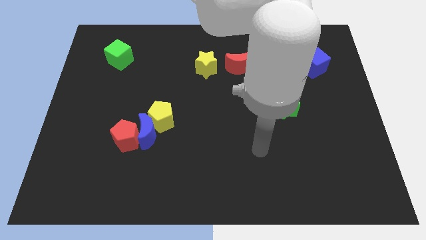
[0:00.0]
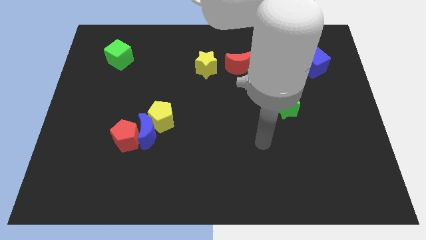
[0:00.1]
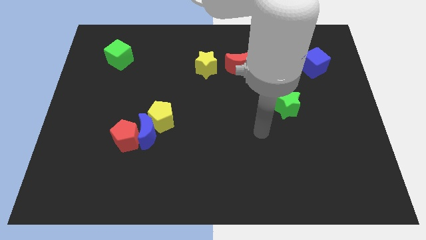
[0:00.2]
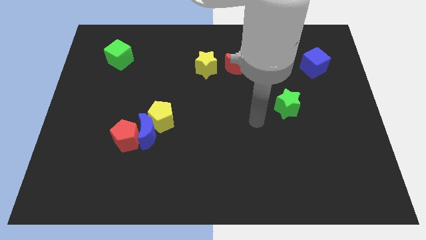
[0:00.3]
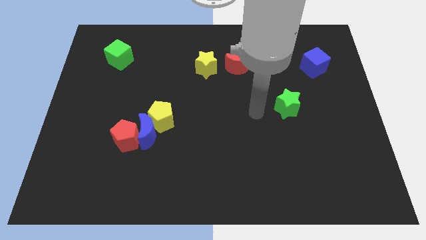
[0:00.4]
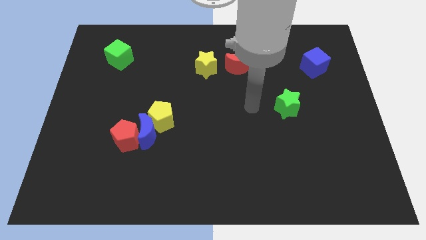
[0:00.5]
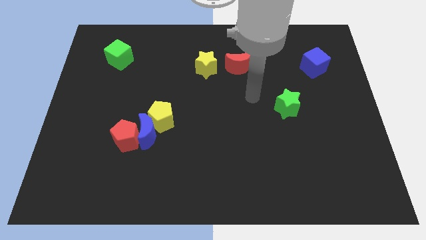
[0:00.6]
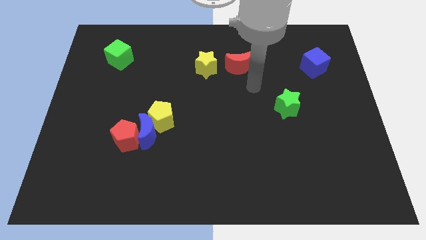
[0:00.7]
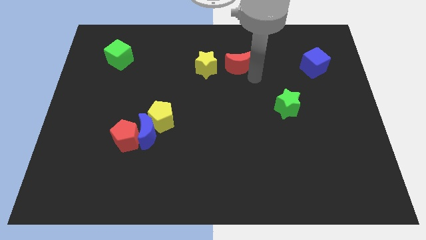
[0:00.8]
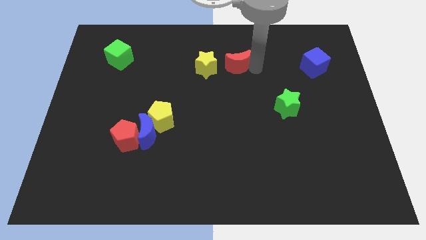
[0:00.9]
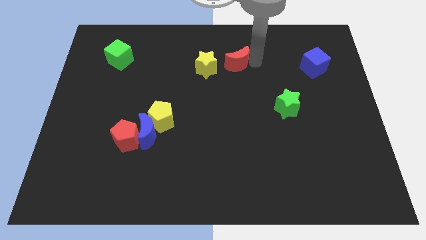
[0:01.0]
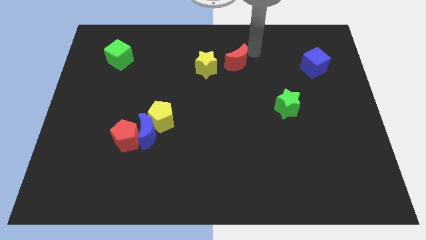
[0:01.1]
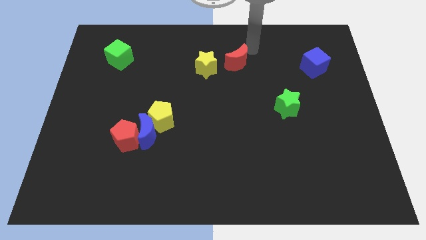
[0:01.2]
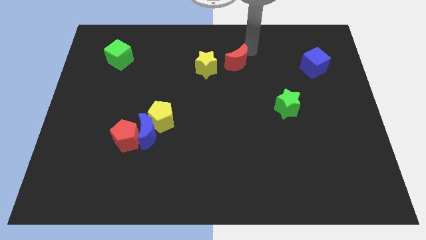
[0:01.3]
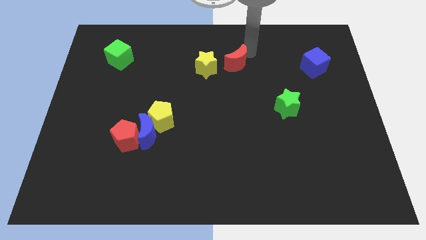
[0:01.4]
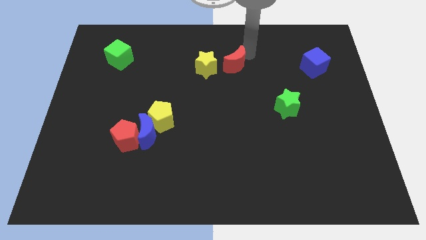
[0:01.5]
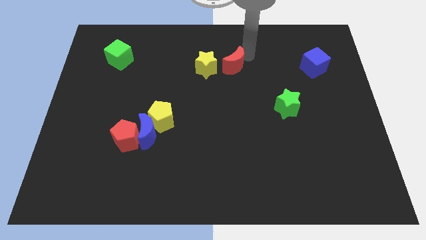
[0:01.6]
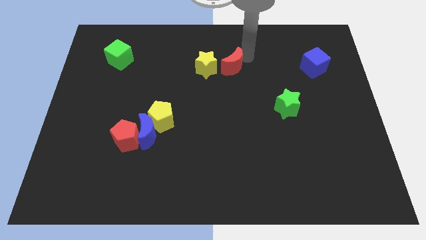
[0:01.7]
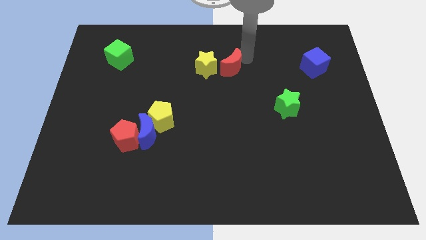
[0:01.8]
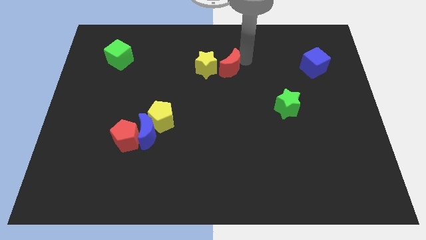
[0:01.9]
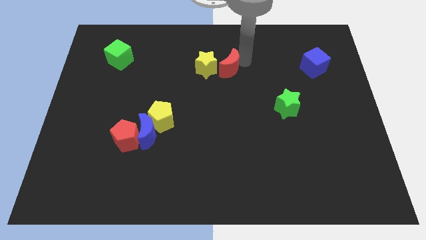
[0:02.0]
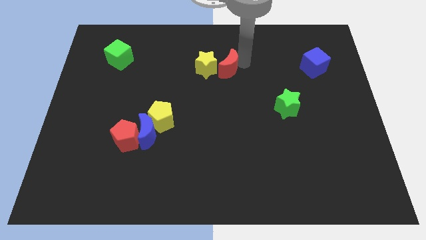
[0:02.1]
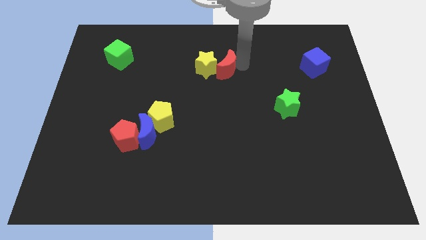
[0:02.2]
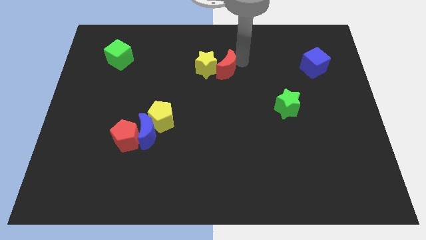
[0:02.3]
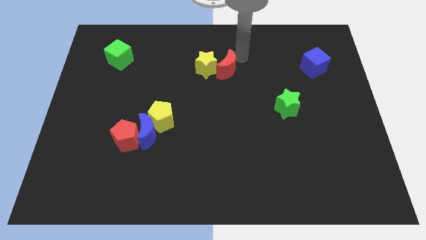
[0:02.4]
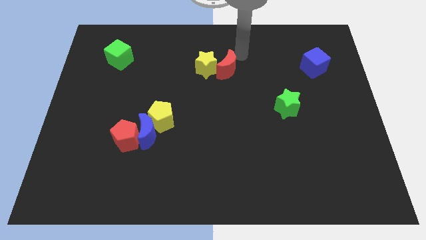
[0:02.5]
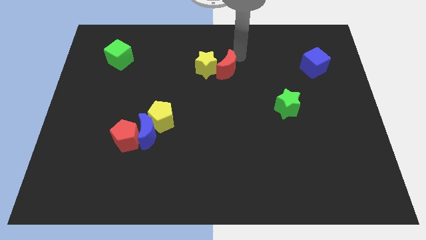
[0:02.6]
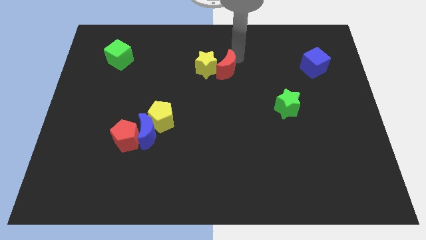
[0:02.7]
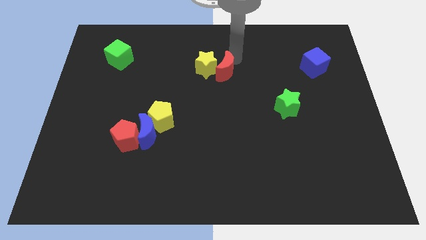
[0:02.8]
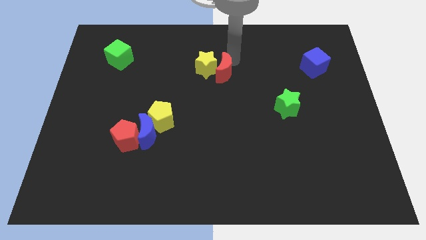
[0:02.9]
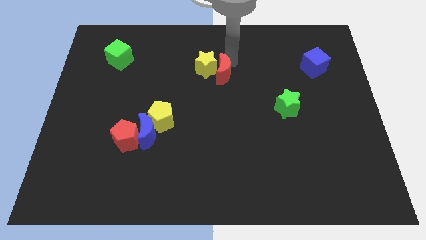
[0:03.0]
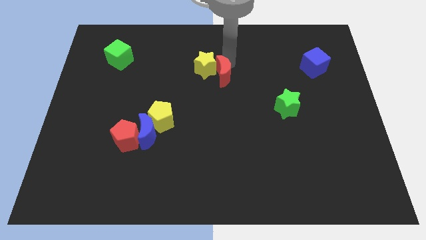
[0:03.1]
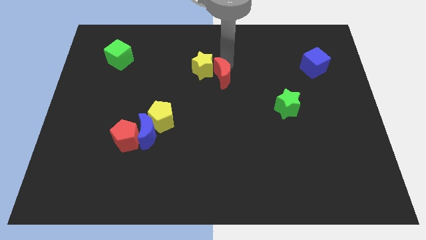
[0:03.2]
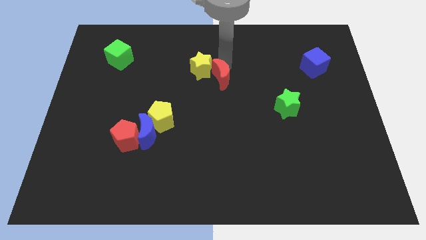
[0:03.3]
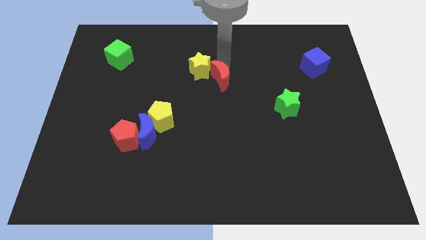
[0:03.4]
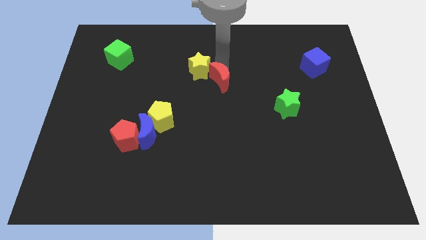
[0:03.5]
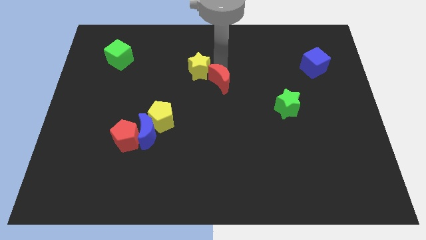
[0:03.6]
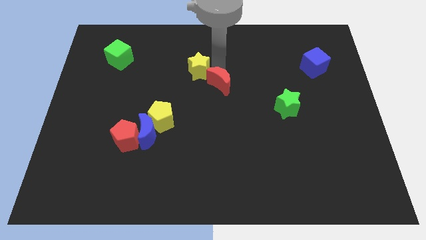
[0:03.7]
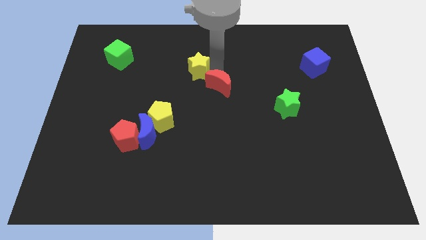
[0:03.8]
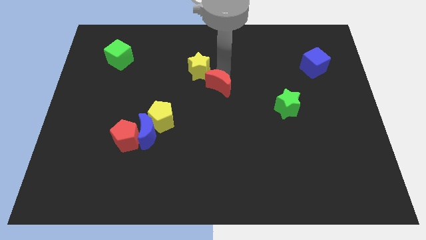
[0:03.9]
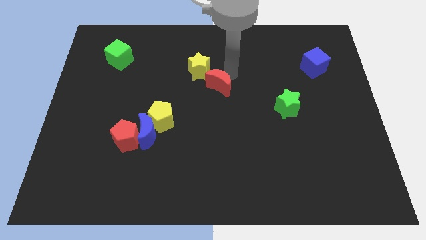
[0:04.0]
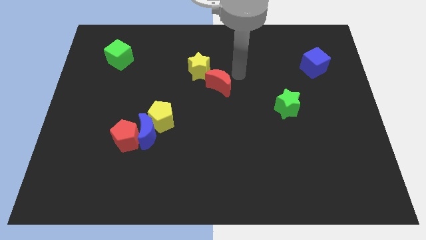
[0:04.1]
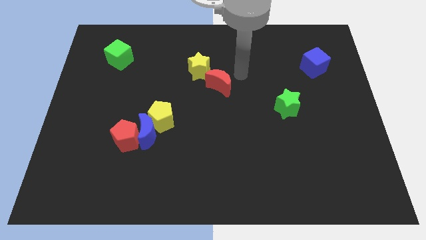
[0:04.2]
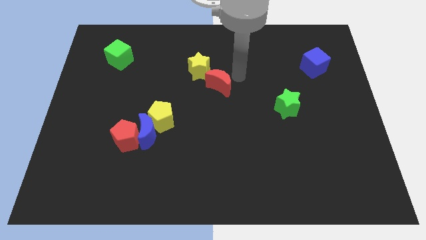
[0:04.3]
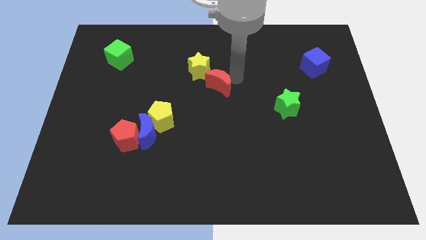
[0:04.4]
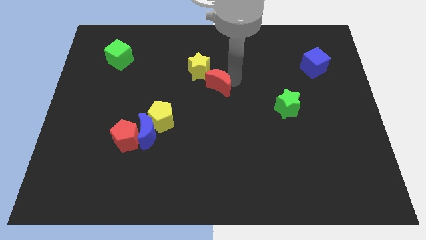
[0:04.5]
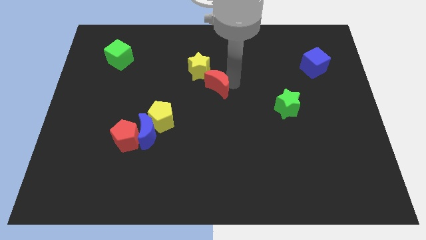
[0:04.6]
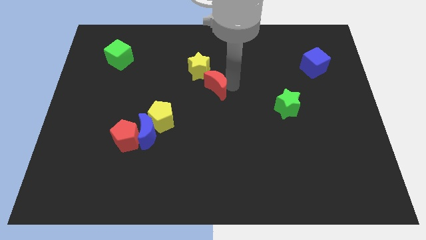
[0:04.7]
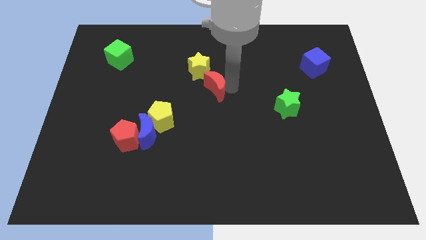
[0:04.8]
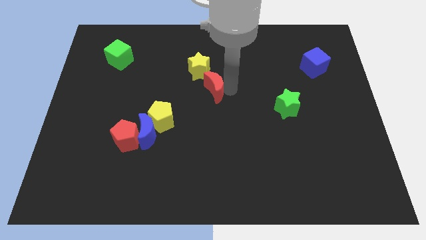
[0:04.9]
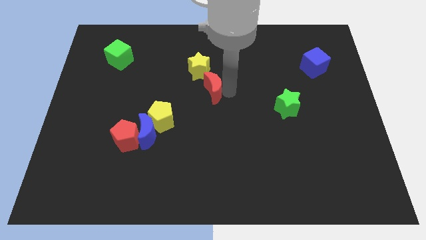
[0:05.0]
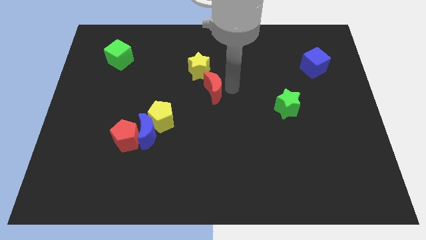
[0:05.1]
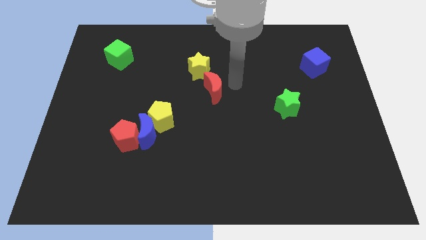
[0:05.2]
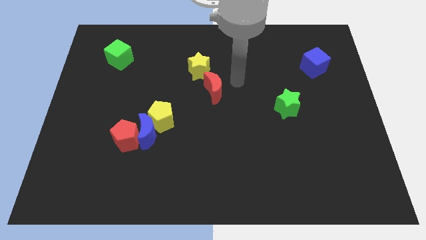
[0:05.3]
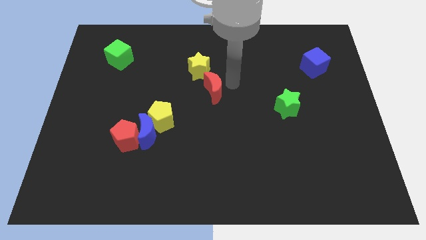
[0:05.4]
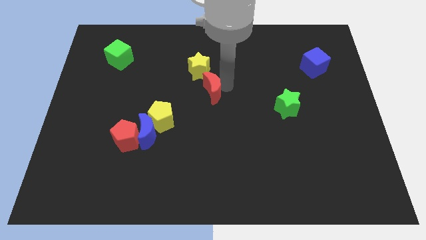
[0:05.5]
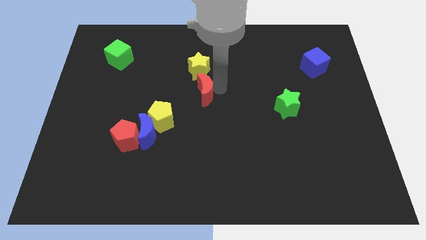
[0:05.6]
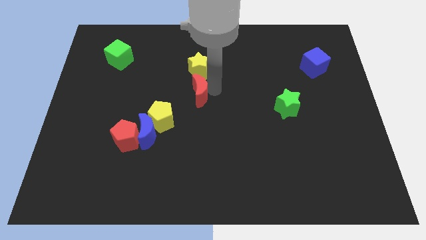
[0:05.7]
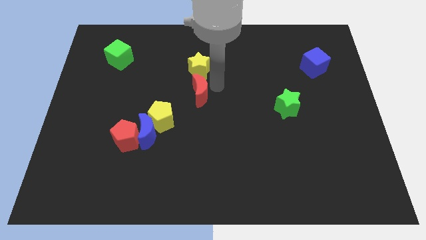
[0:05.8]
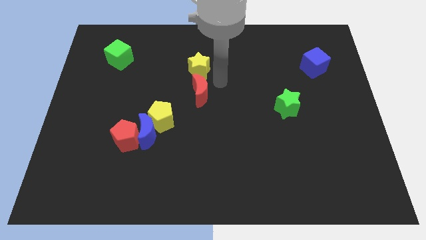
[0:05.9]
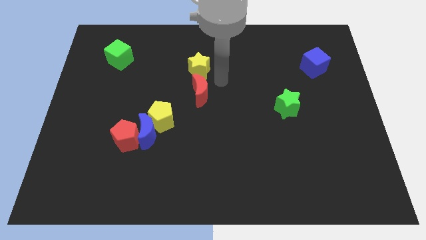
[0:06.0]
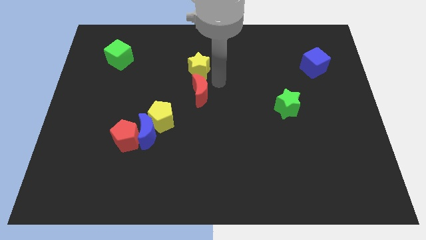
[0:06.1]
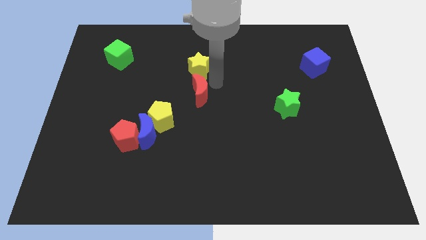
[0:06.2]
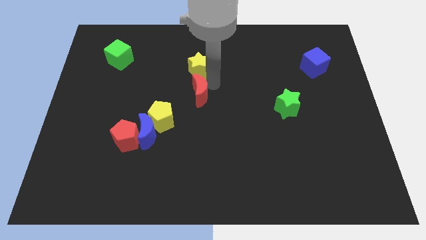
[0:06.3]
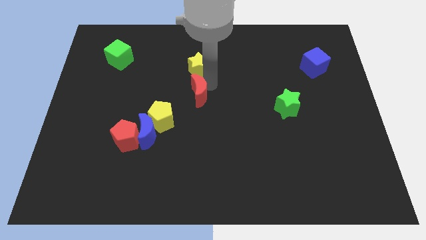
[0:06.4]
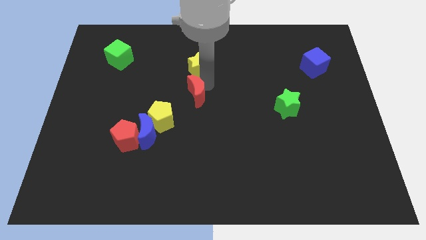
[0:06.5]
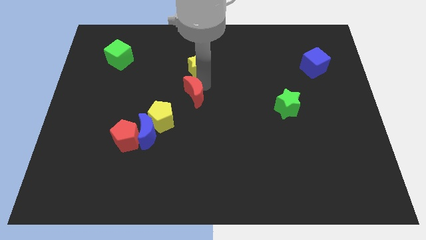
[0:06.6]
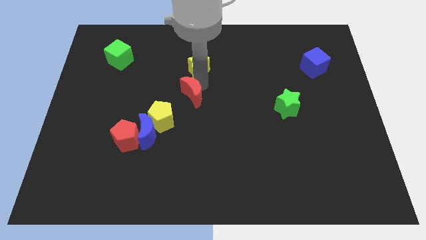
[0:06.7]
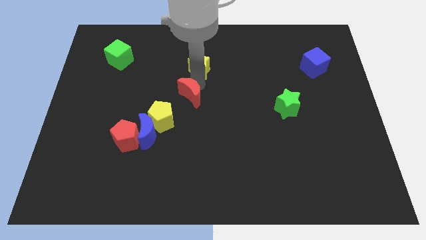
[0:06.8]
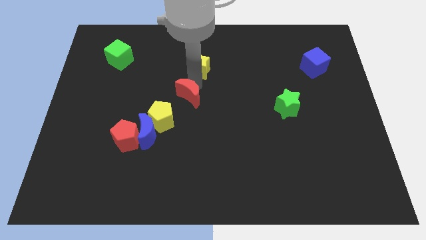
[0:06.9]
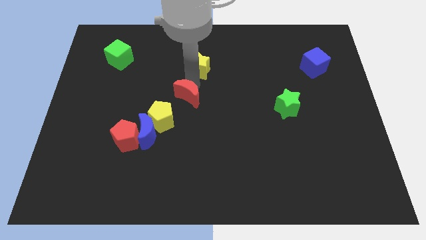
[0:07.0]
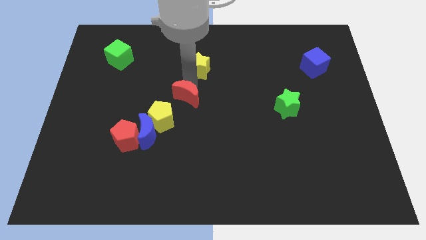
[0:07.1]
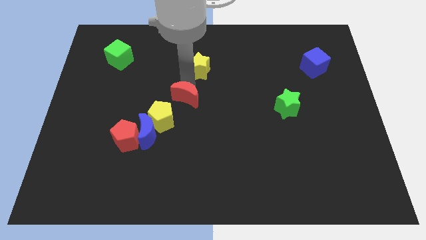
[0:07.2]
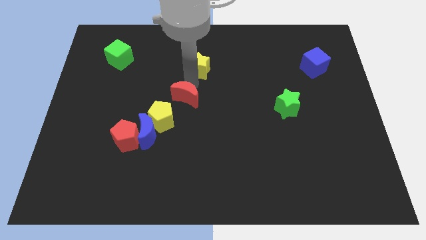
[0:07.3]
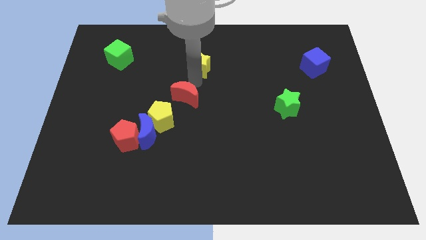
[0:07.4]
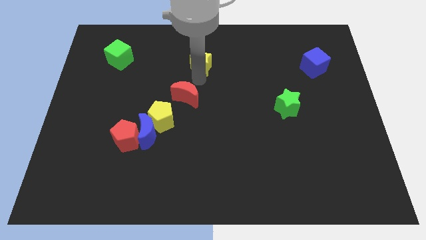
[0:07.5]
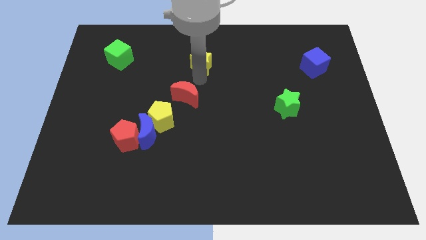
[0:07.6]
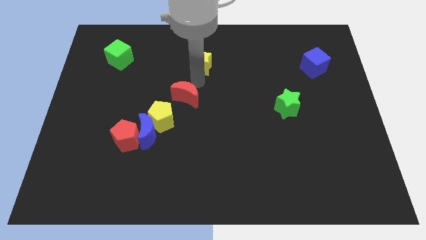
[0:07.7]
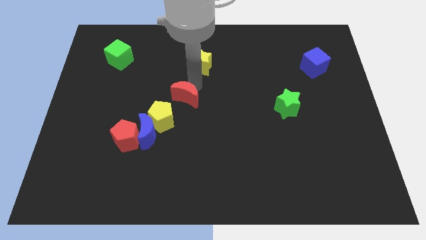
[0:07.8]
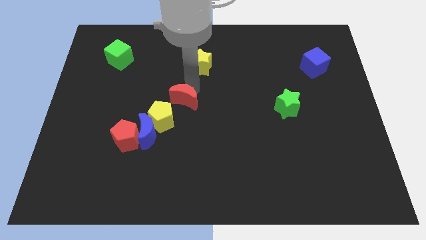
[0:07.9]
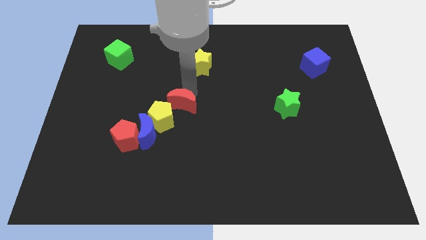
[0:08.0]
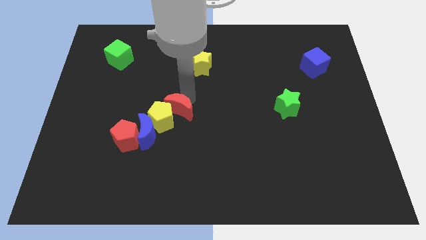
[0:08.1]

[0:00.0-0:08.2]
push the red moon close to the yellow pentagon
